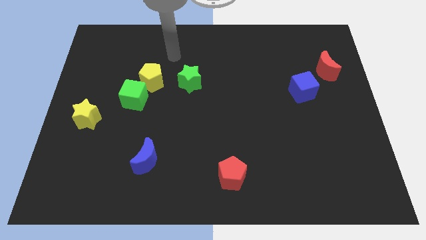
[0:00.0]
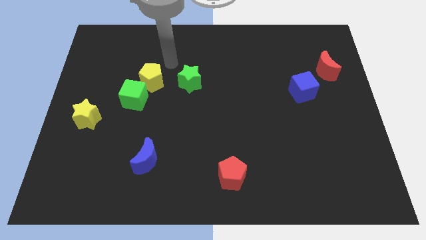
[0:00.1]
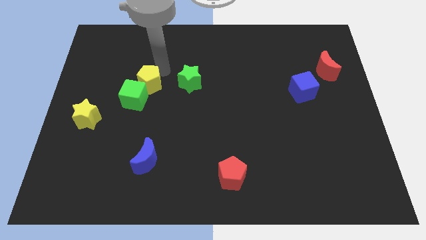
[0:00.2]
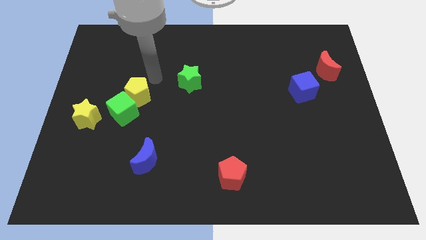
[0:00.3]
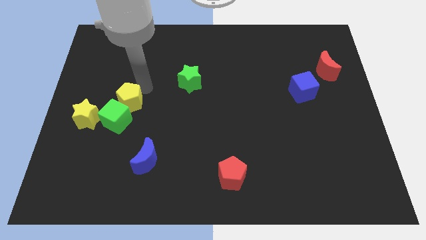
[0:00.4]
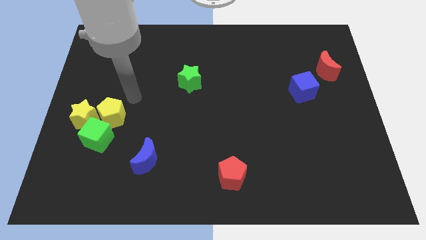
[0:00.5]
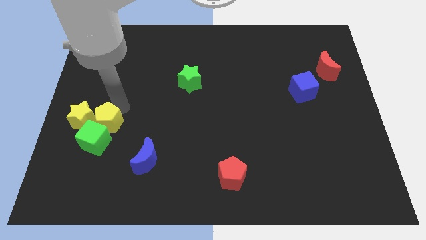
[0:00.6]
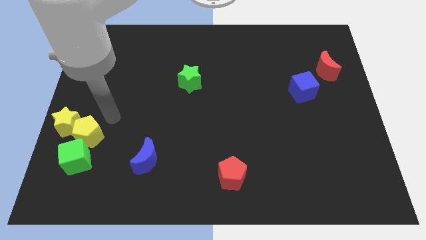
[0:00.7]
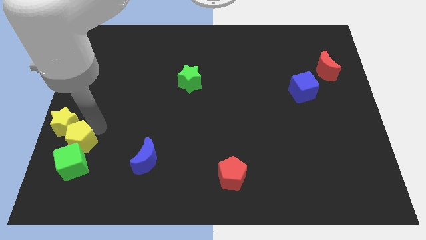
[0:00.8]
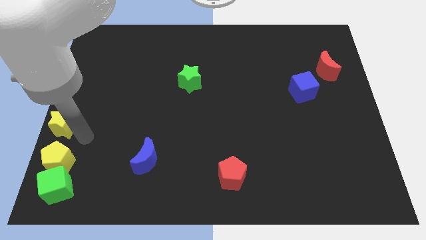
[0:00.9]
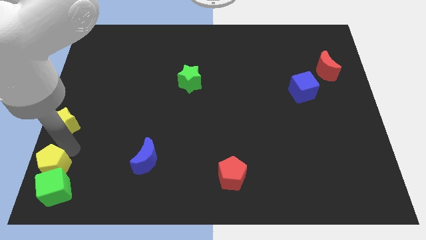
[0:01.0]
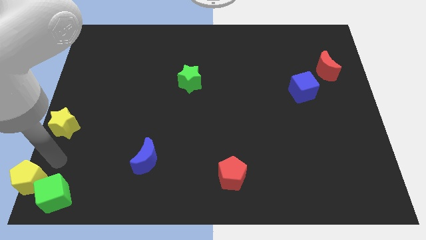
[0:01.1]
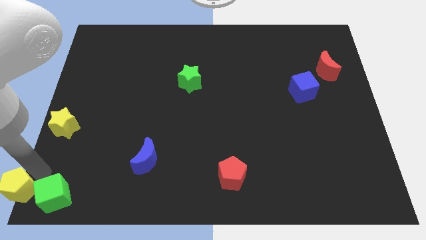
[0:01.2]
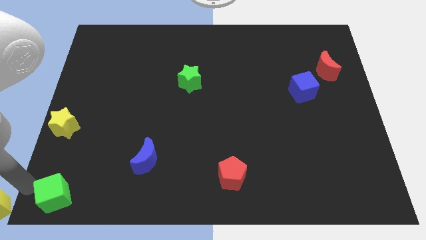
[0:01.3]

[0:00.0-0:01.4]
separate the green cube from the yellow pentagon

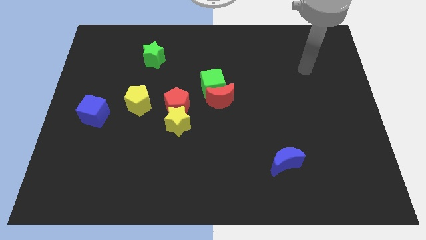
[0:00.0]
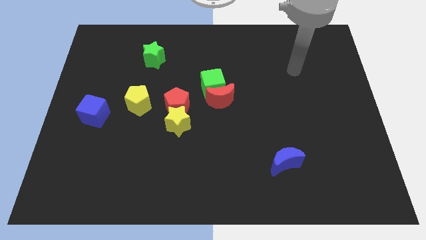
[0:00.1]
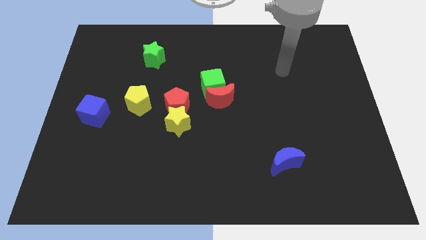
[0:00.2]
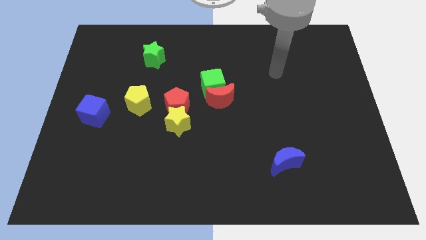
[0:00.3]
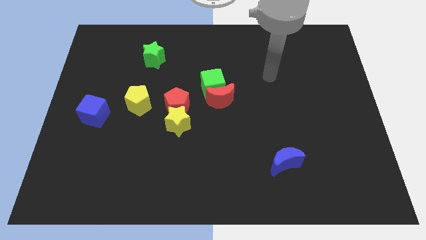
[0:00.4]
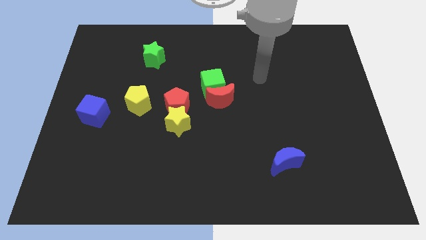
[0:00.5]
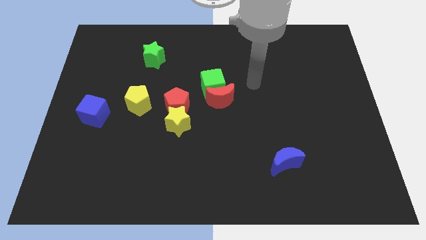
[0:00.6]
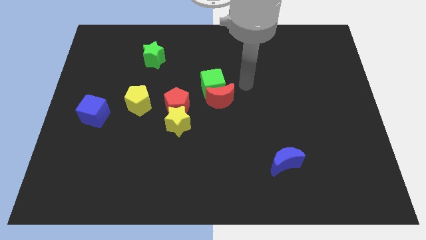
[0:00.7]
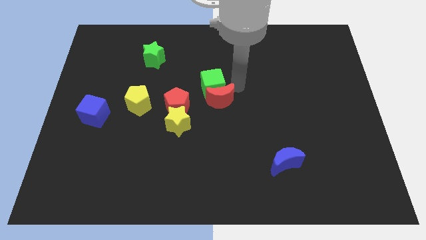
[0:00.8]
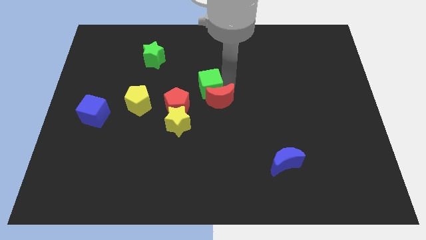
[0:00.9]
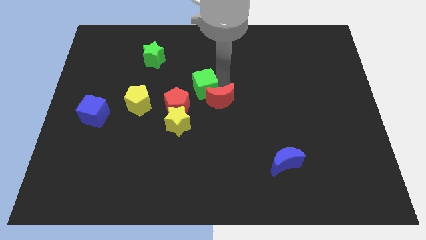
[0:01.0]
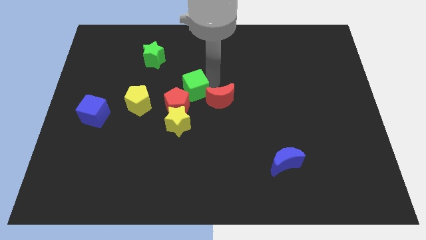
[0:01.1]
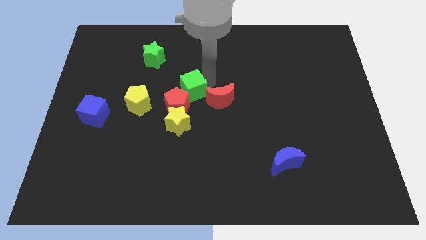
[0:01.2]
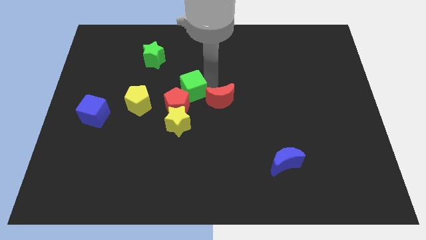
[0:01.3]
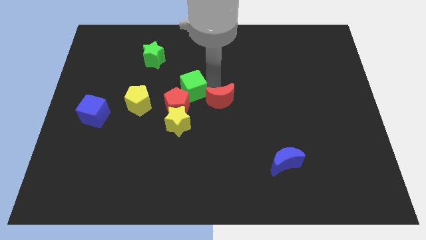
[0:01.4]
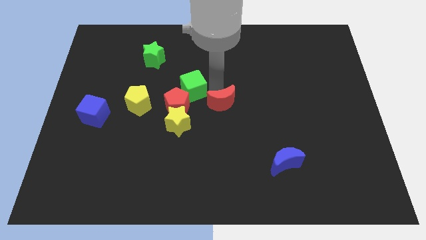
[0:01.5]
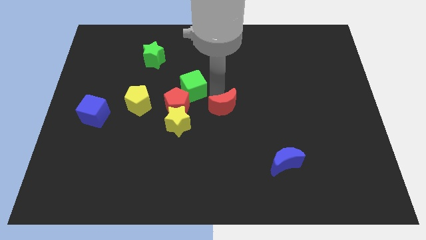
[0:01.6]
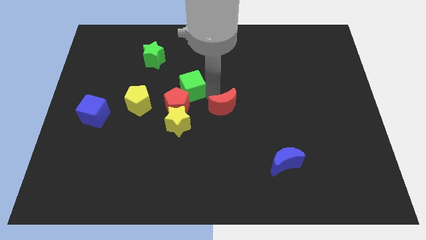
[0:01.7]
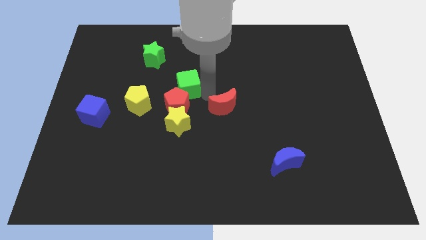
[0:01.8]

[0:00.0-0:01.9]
separate the red moon from the green cube

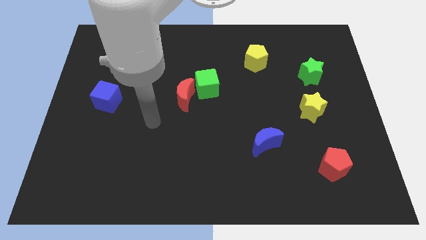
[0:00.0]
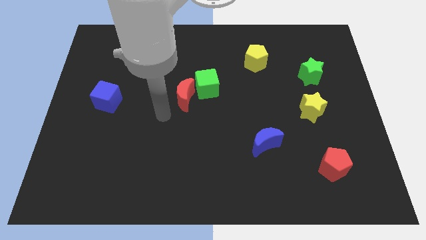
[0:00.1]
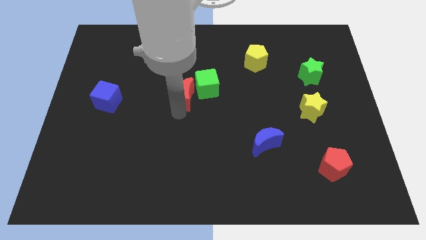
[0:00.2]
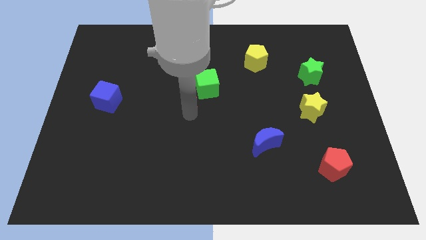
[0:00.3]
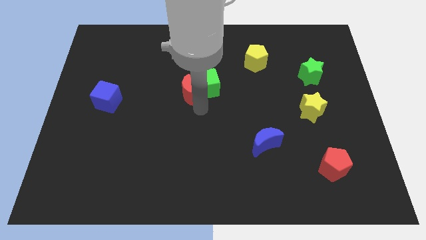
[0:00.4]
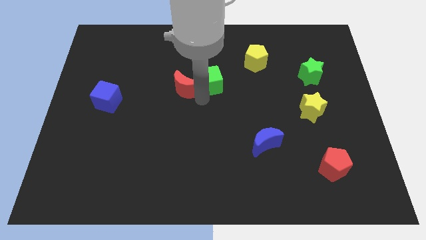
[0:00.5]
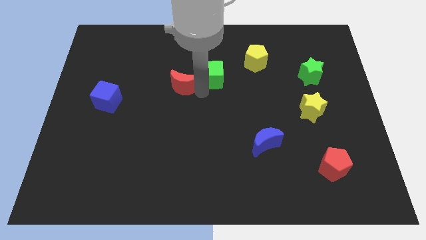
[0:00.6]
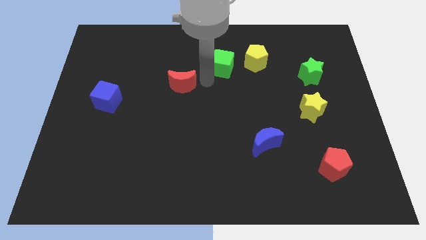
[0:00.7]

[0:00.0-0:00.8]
pull the red moon apart from the green cube

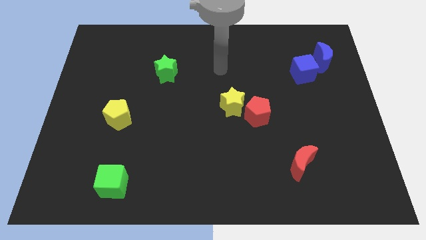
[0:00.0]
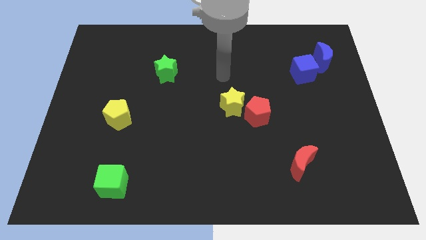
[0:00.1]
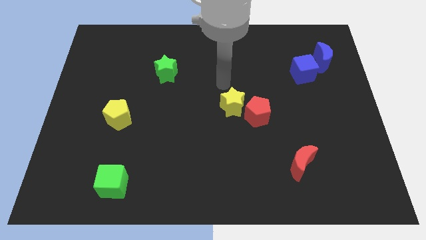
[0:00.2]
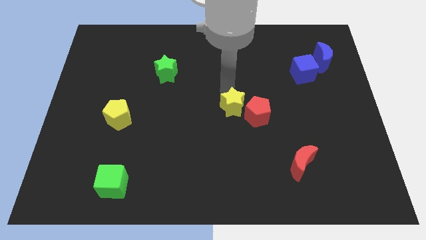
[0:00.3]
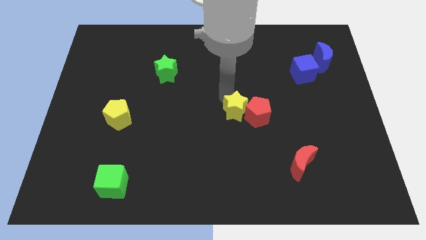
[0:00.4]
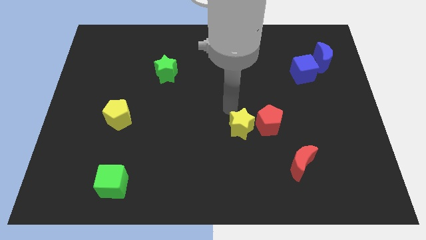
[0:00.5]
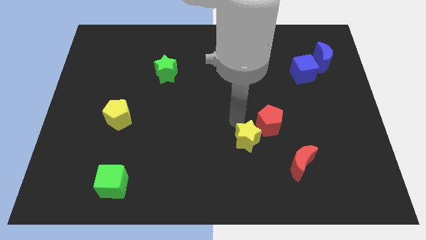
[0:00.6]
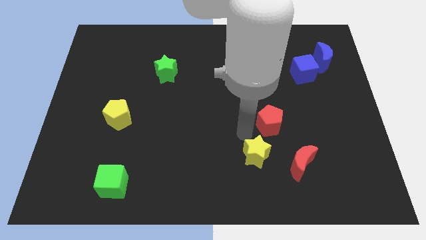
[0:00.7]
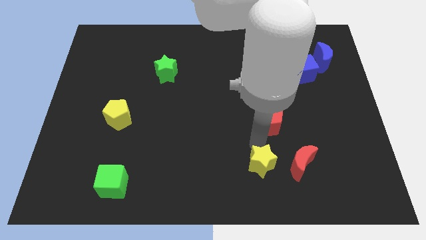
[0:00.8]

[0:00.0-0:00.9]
move the red pentagon away from the yellow star

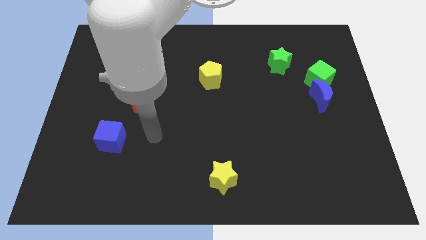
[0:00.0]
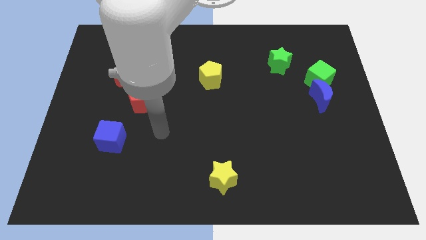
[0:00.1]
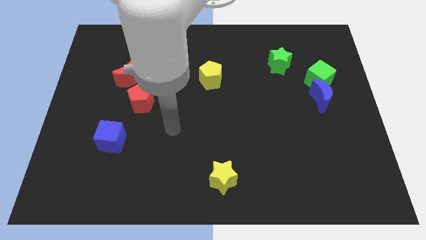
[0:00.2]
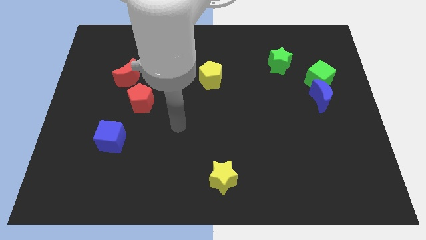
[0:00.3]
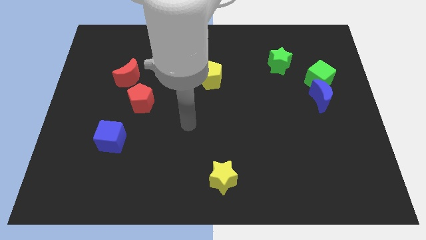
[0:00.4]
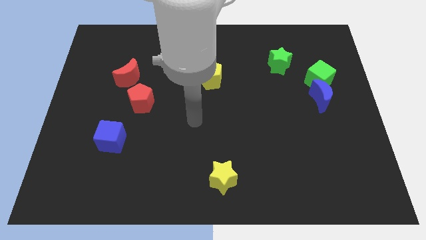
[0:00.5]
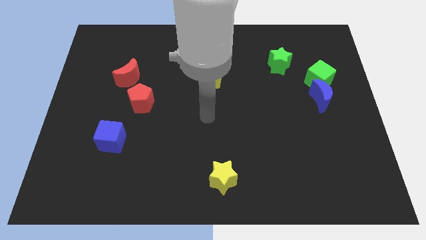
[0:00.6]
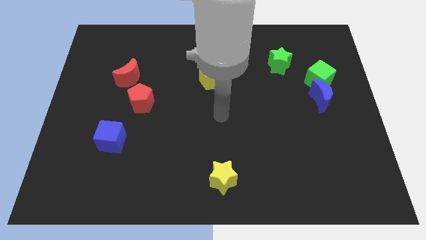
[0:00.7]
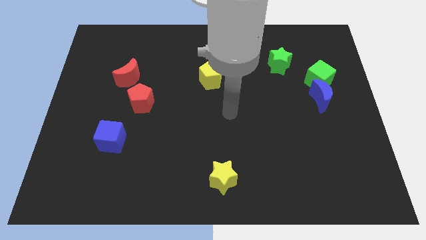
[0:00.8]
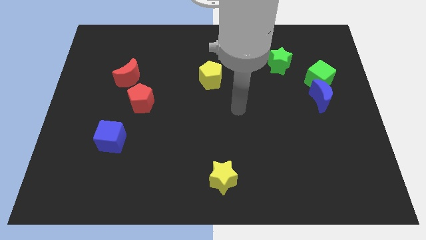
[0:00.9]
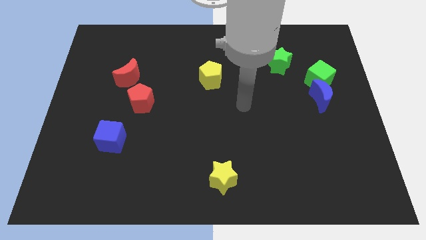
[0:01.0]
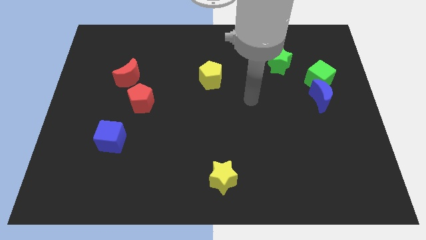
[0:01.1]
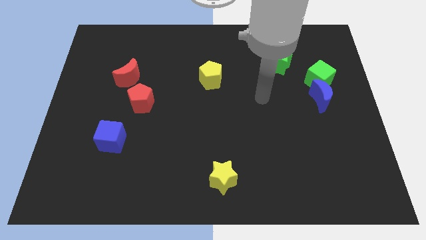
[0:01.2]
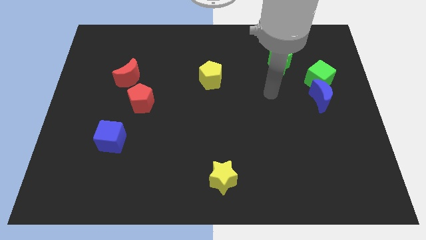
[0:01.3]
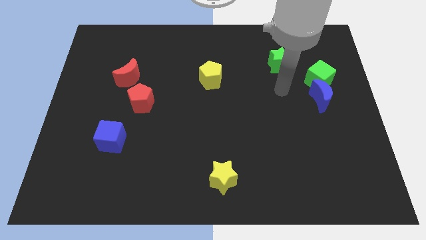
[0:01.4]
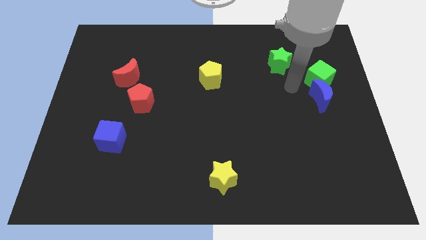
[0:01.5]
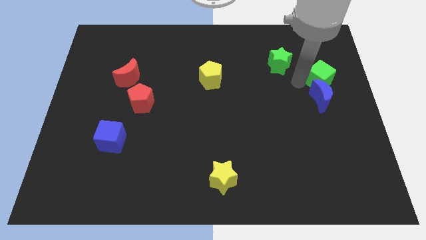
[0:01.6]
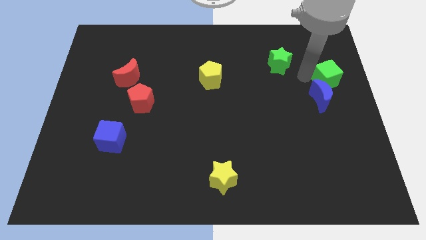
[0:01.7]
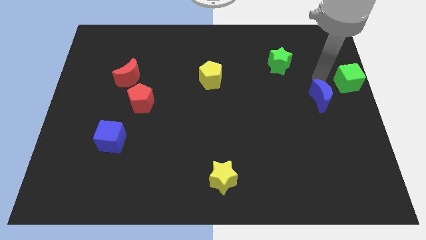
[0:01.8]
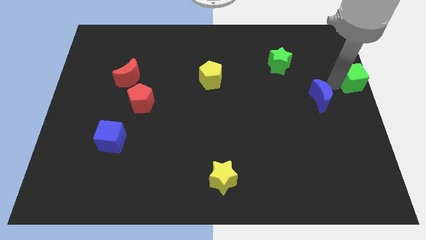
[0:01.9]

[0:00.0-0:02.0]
separate the blue moon from the green cube

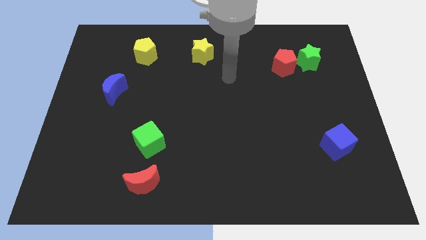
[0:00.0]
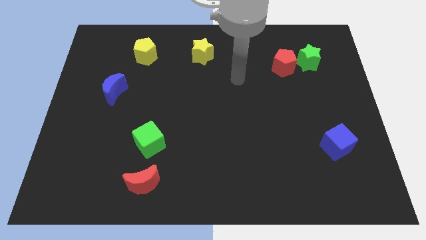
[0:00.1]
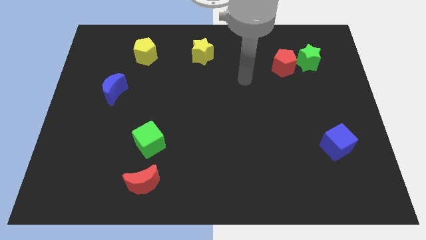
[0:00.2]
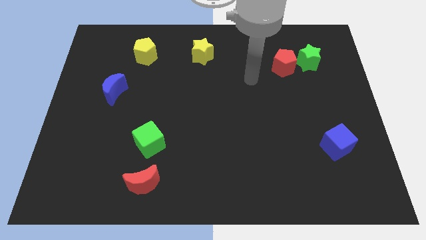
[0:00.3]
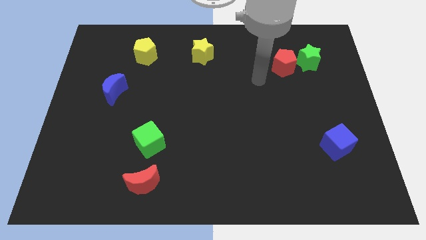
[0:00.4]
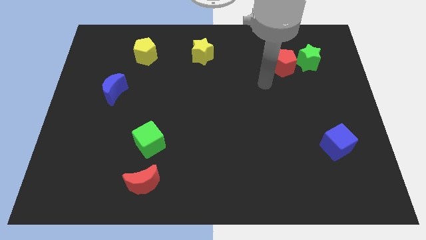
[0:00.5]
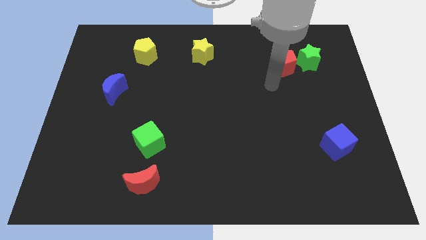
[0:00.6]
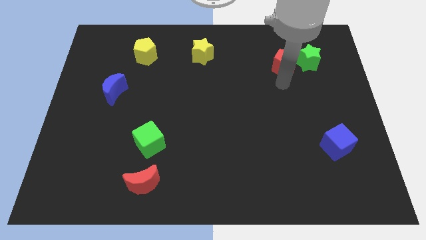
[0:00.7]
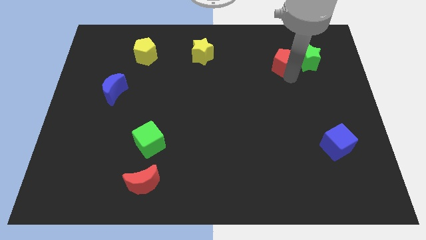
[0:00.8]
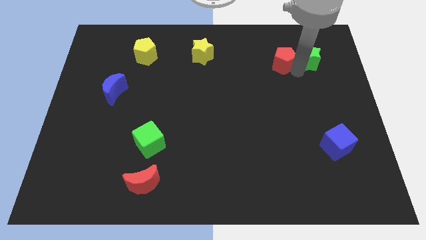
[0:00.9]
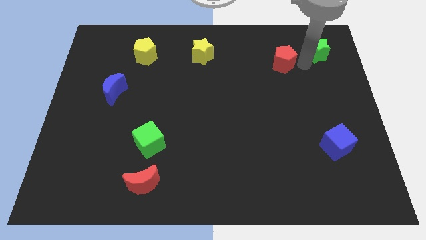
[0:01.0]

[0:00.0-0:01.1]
move the red pentagon away from the green star

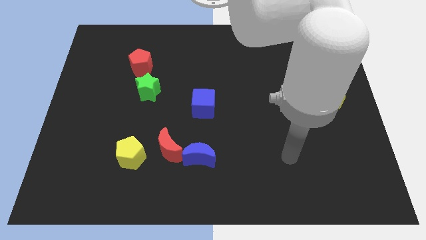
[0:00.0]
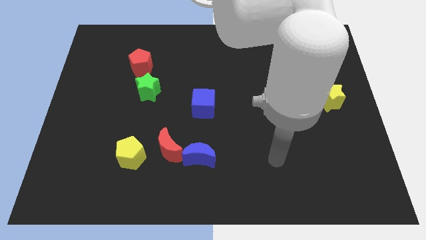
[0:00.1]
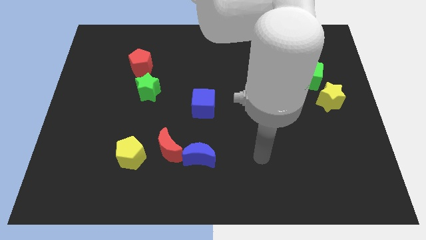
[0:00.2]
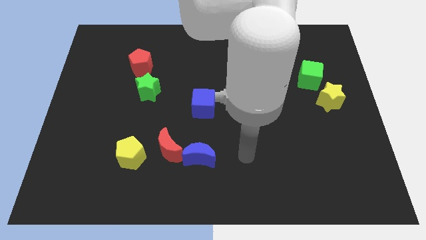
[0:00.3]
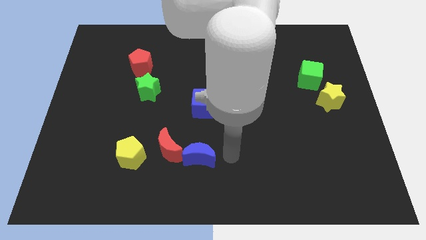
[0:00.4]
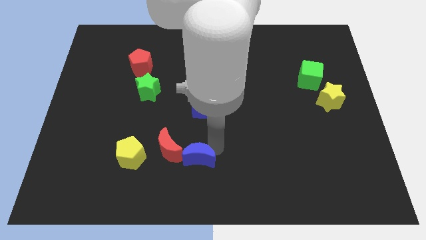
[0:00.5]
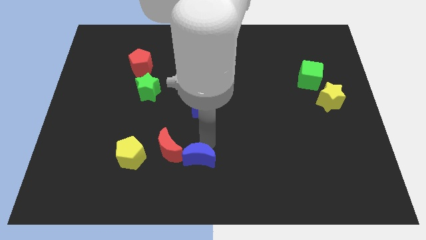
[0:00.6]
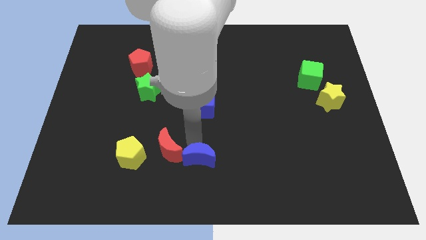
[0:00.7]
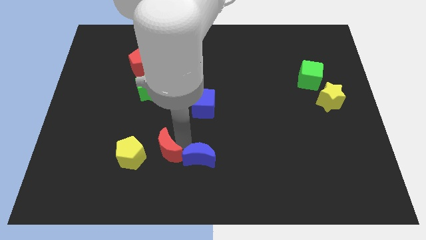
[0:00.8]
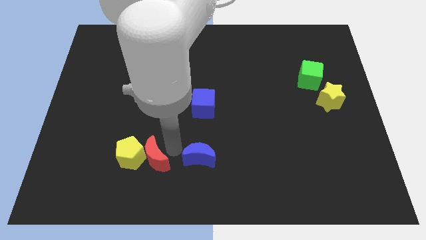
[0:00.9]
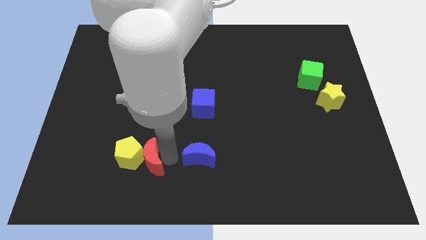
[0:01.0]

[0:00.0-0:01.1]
separate the blue moon from the red moon
